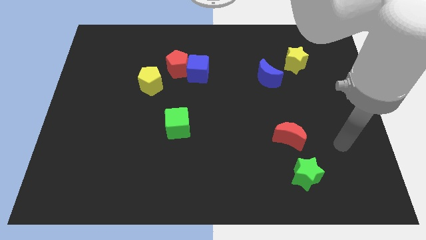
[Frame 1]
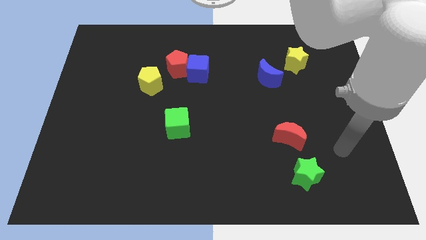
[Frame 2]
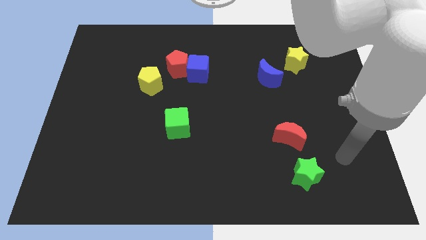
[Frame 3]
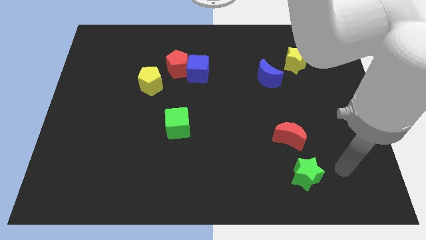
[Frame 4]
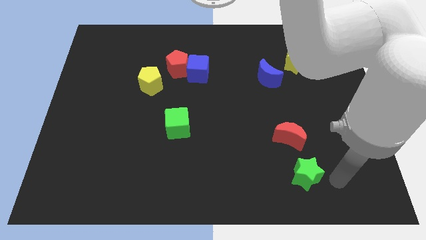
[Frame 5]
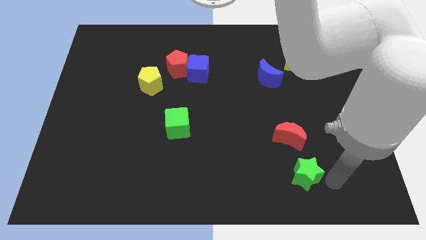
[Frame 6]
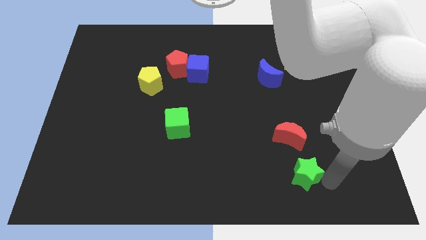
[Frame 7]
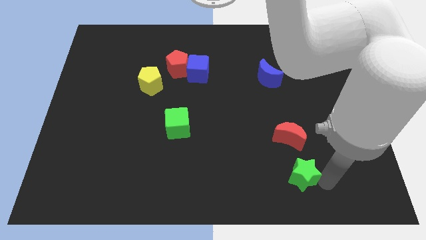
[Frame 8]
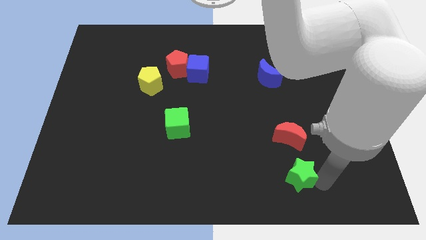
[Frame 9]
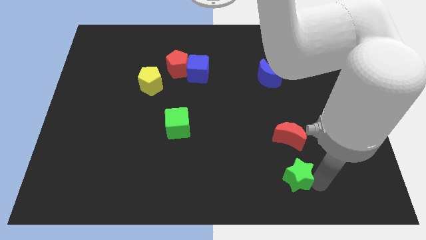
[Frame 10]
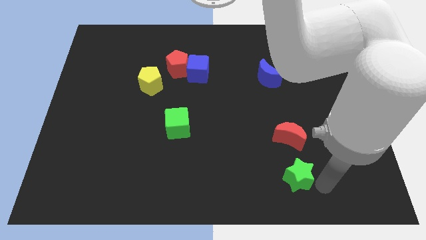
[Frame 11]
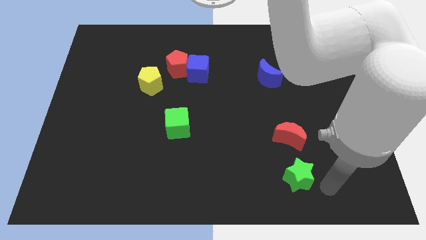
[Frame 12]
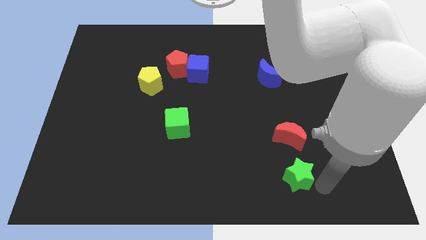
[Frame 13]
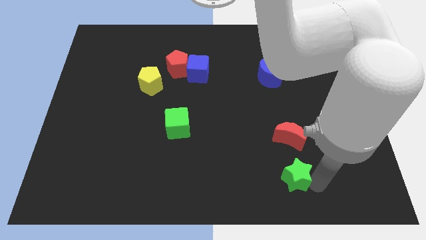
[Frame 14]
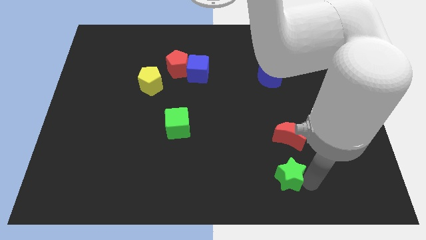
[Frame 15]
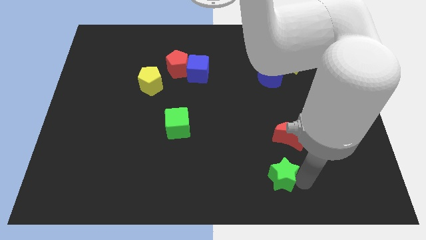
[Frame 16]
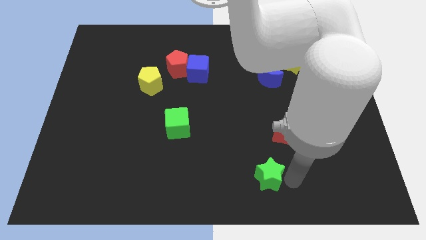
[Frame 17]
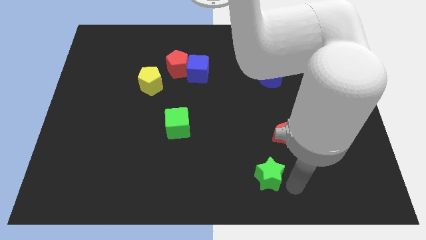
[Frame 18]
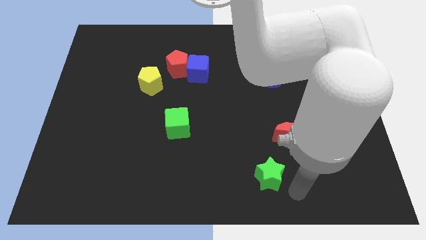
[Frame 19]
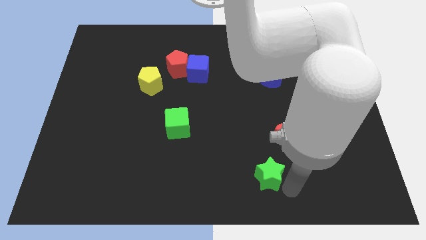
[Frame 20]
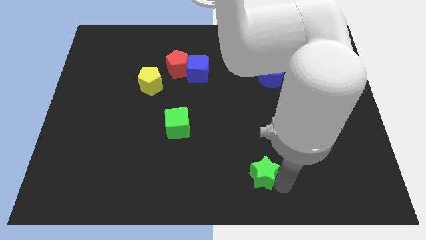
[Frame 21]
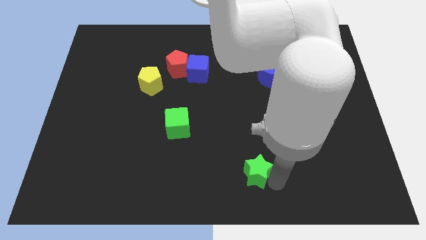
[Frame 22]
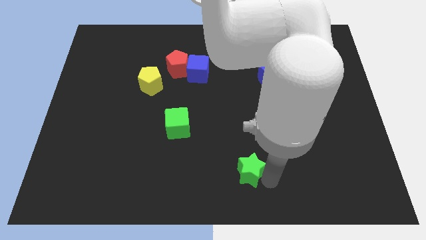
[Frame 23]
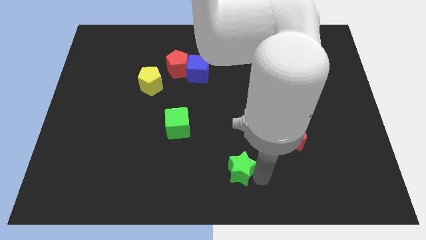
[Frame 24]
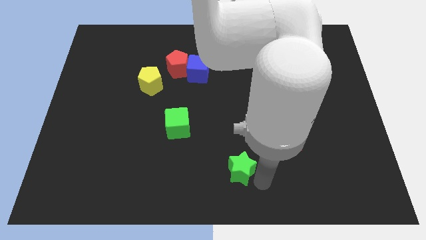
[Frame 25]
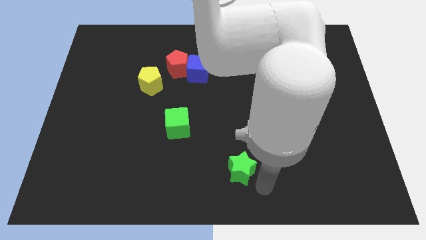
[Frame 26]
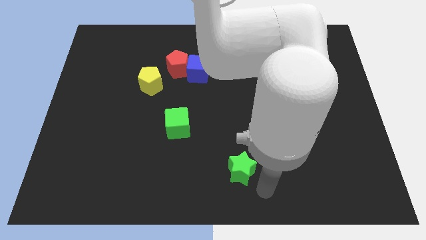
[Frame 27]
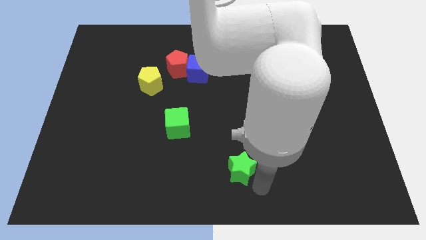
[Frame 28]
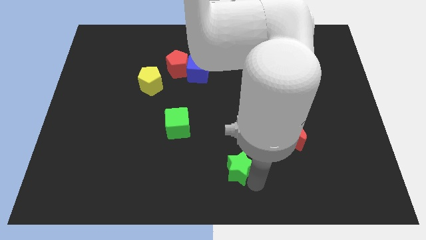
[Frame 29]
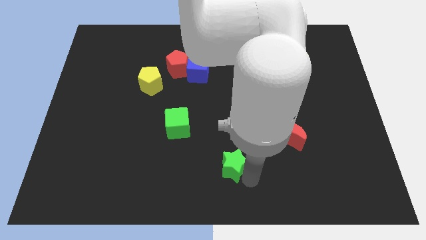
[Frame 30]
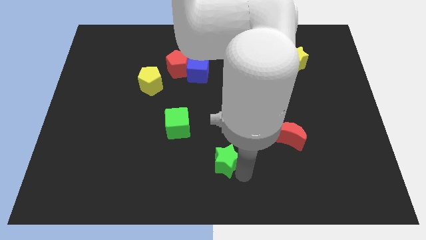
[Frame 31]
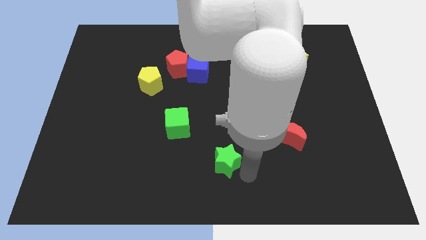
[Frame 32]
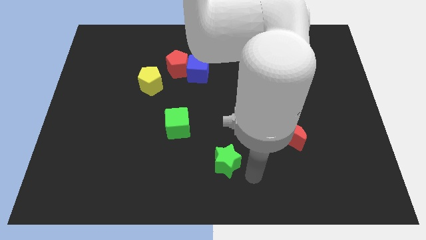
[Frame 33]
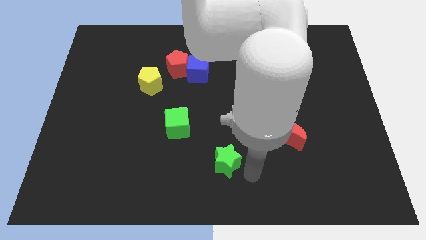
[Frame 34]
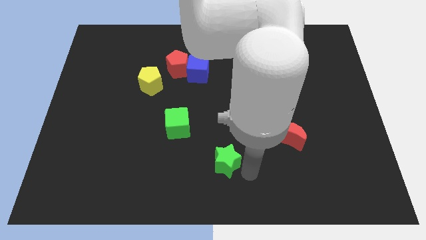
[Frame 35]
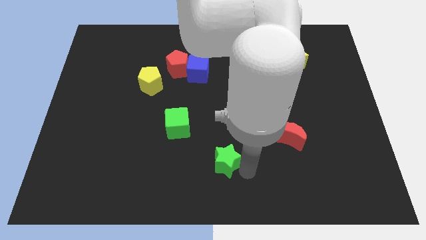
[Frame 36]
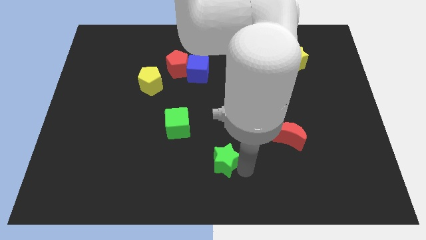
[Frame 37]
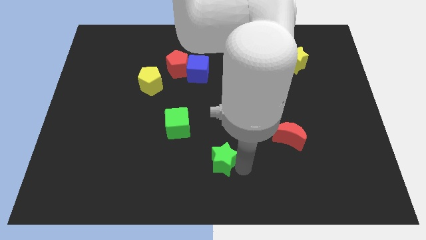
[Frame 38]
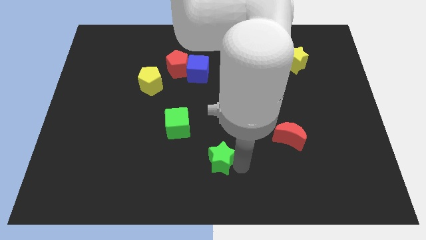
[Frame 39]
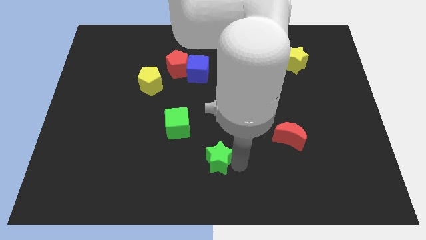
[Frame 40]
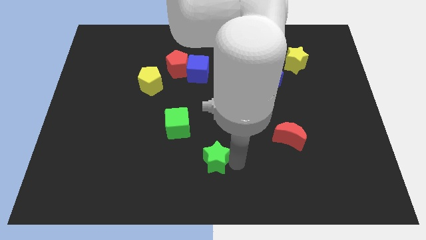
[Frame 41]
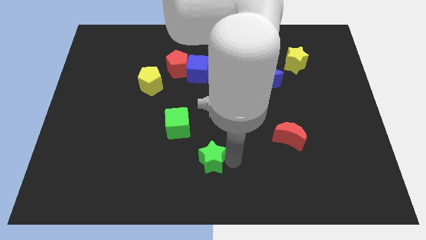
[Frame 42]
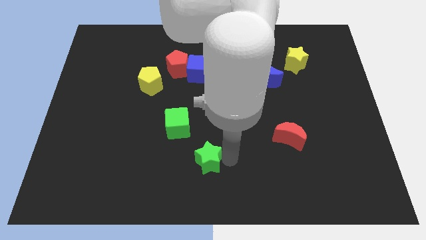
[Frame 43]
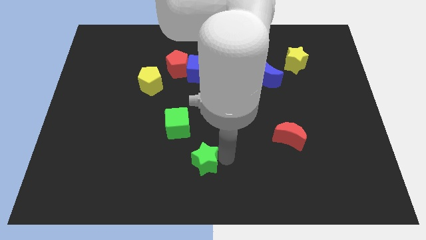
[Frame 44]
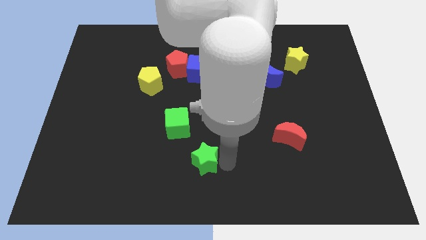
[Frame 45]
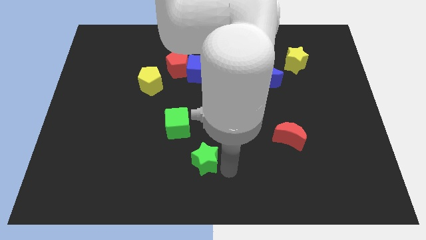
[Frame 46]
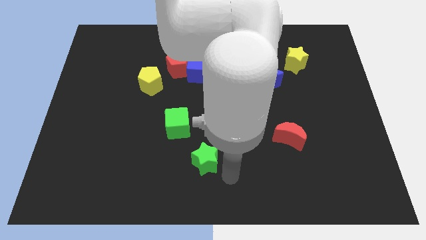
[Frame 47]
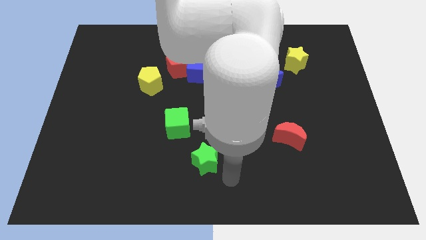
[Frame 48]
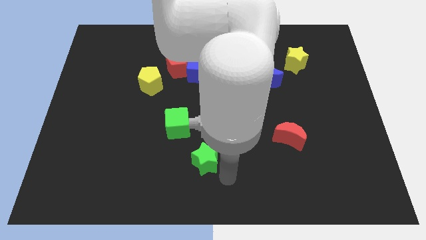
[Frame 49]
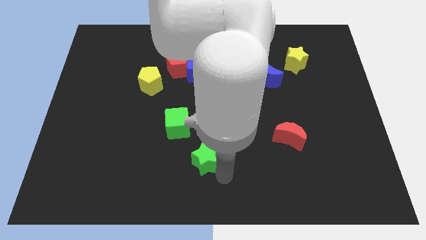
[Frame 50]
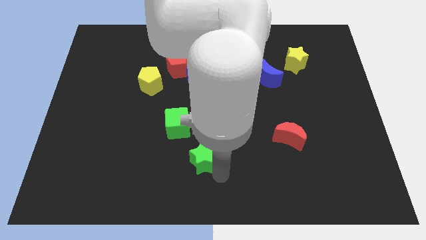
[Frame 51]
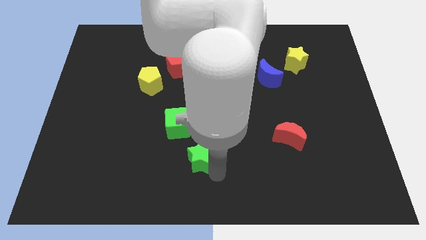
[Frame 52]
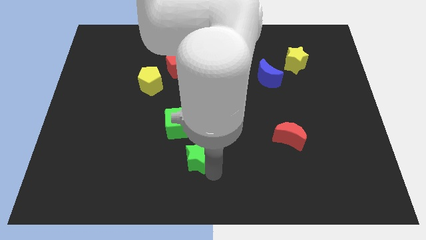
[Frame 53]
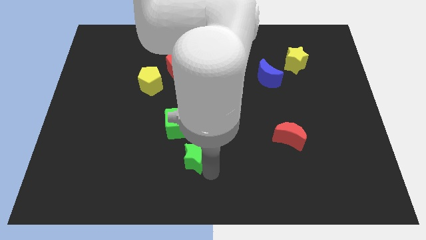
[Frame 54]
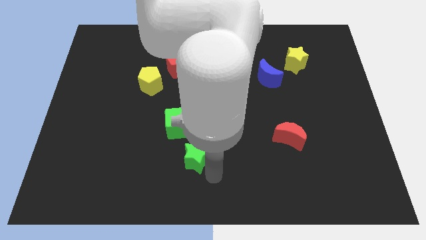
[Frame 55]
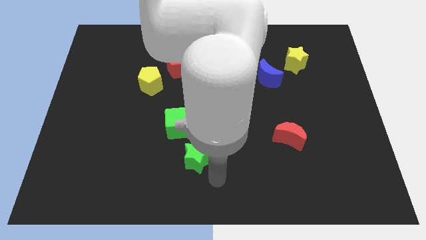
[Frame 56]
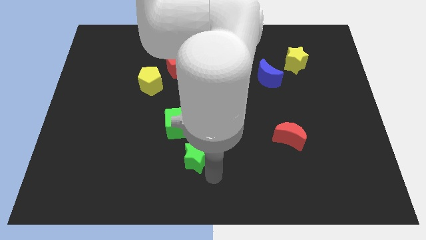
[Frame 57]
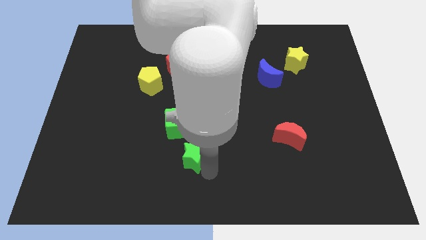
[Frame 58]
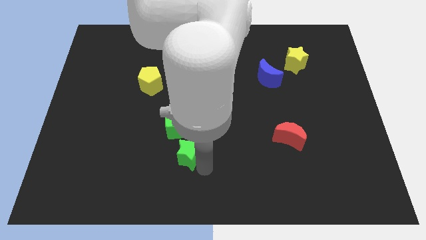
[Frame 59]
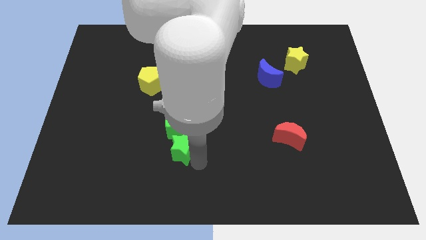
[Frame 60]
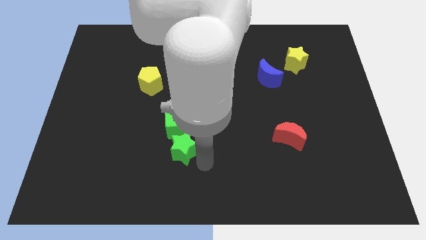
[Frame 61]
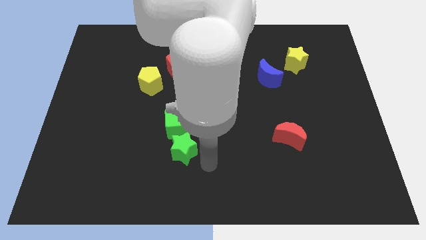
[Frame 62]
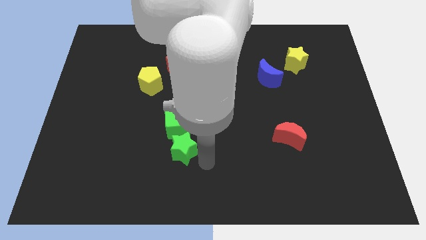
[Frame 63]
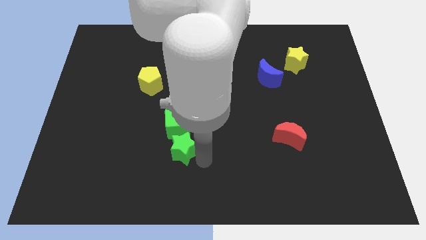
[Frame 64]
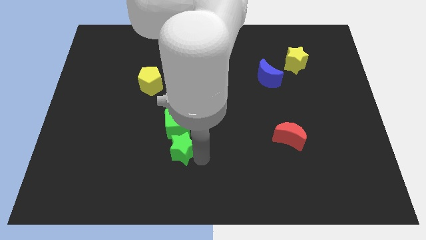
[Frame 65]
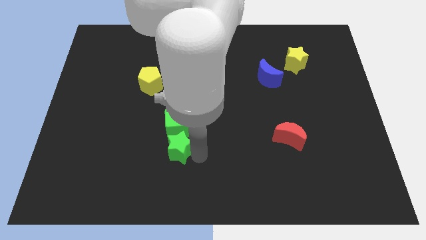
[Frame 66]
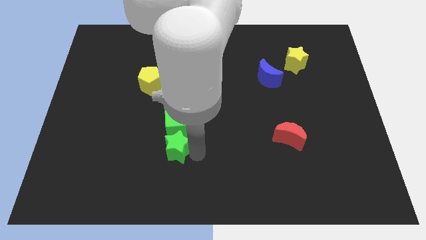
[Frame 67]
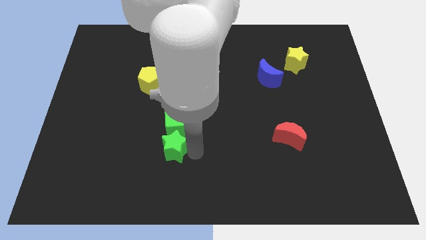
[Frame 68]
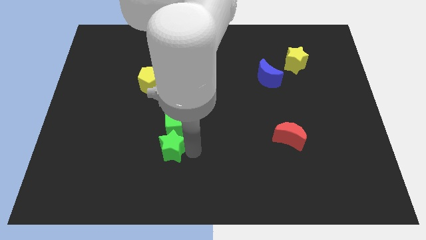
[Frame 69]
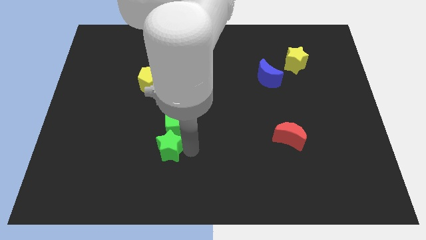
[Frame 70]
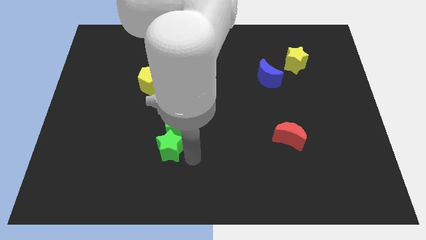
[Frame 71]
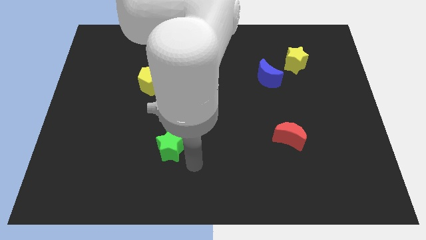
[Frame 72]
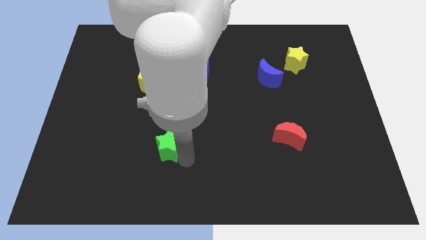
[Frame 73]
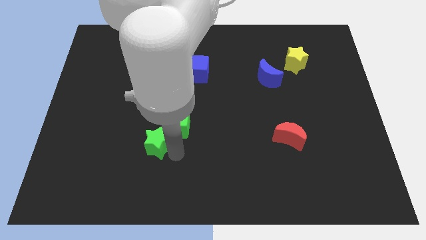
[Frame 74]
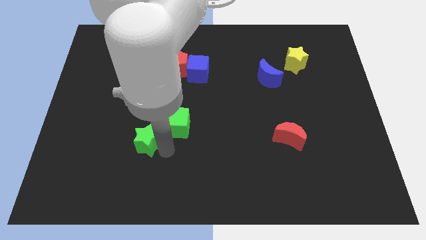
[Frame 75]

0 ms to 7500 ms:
put the green star just left of the green cube
